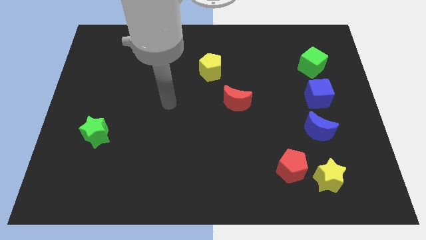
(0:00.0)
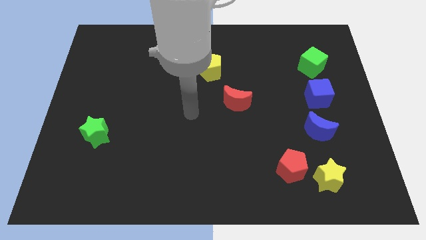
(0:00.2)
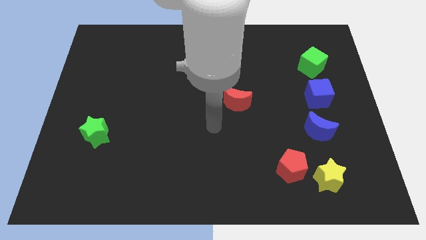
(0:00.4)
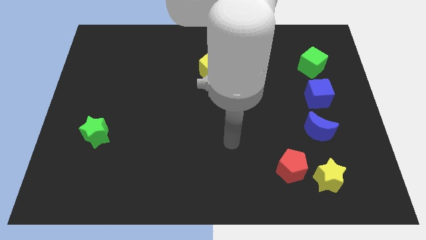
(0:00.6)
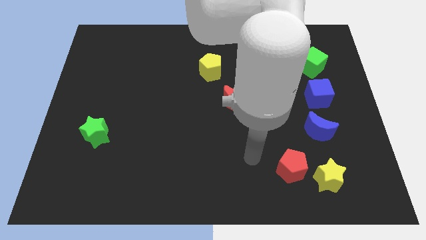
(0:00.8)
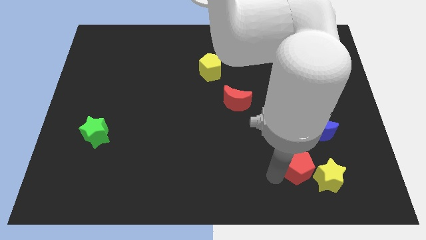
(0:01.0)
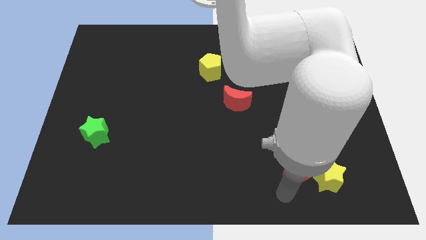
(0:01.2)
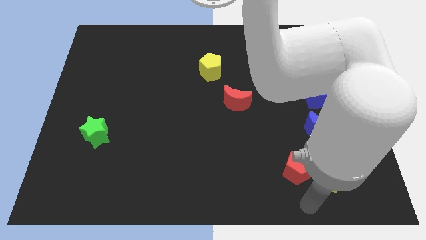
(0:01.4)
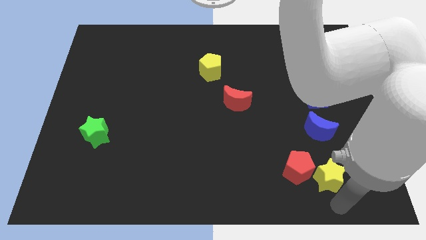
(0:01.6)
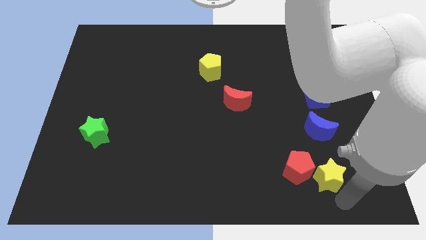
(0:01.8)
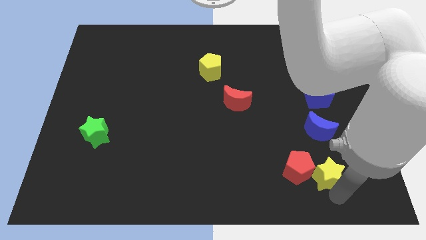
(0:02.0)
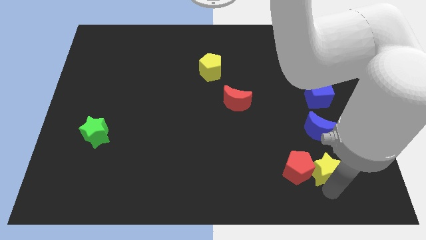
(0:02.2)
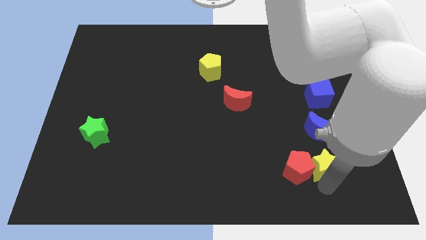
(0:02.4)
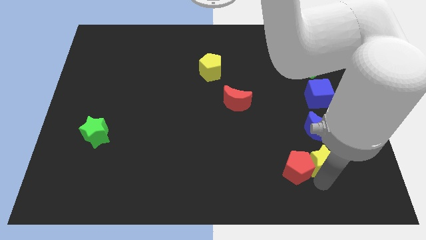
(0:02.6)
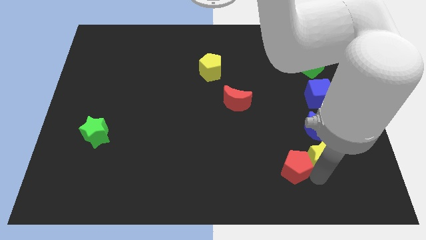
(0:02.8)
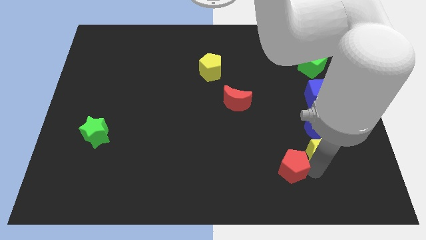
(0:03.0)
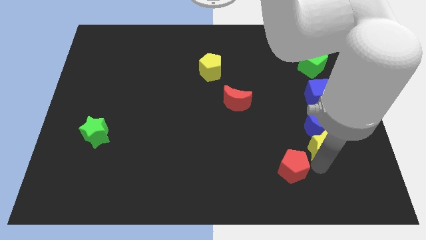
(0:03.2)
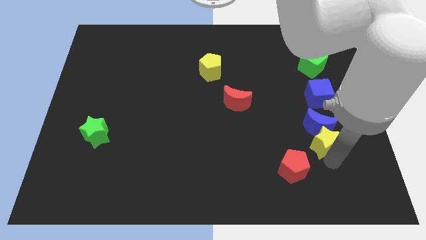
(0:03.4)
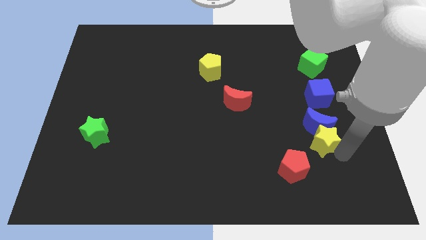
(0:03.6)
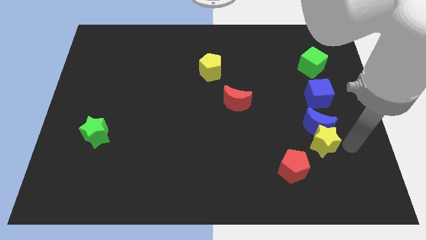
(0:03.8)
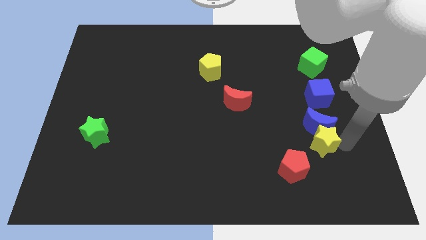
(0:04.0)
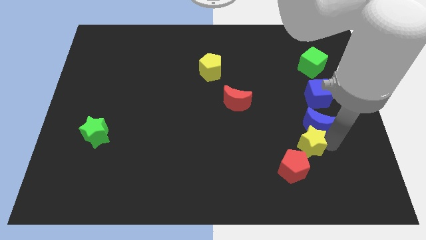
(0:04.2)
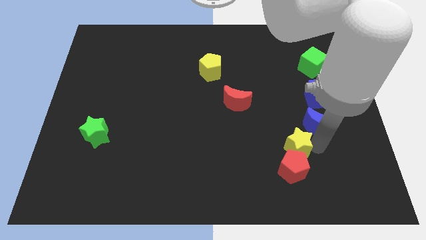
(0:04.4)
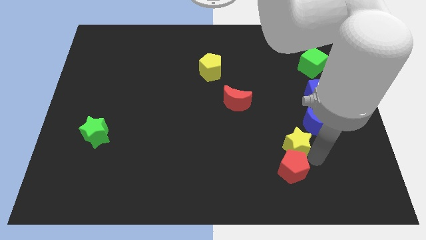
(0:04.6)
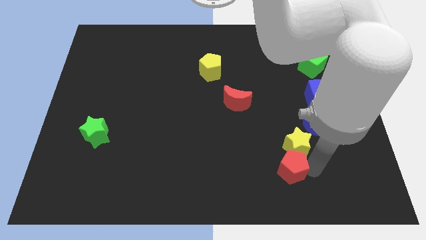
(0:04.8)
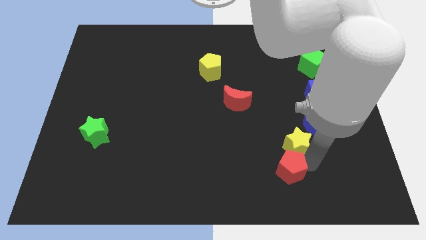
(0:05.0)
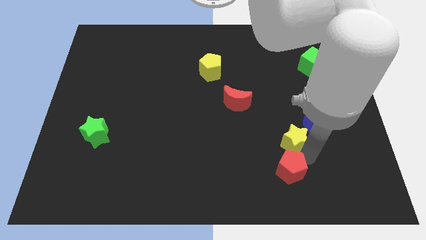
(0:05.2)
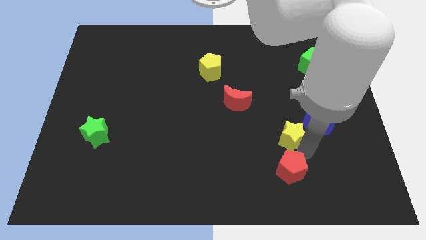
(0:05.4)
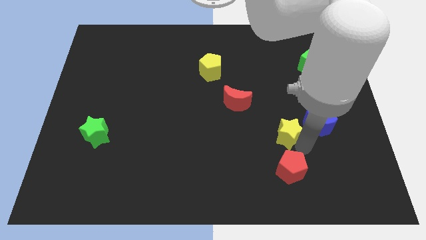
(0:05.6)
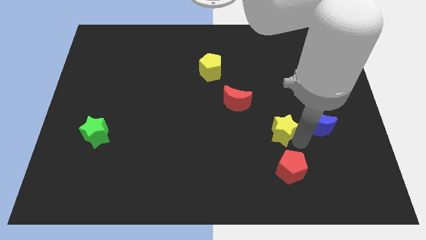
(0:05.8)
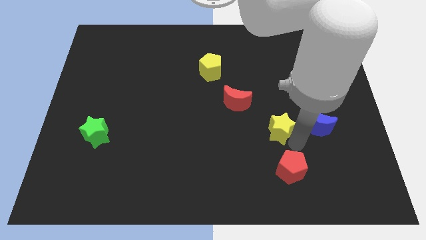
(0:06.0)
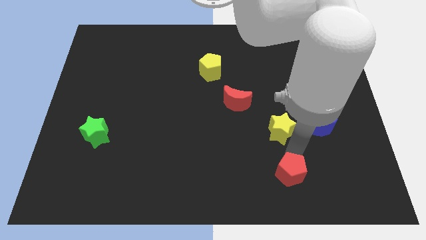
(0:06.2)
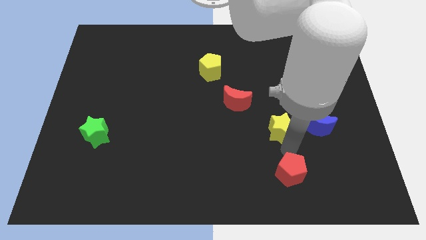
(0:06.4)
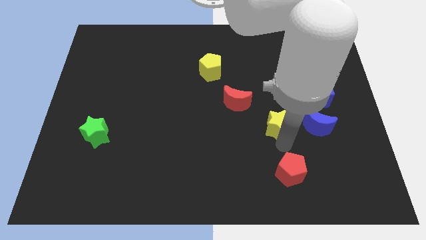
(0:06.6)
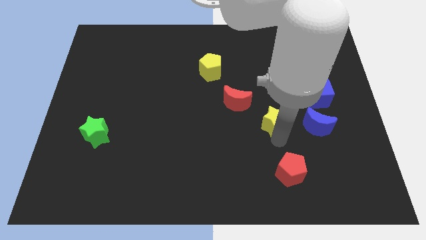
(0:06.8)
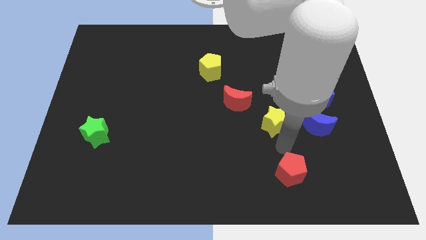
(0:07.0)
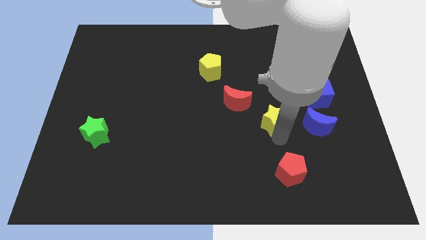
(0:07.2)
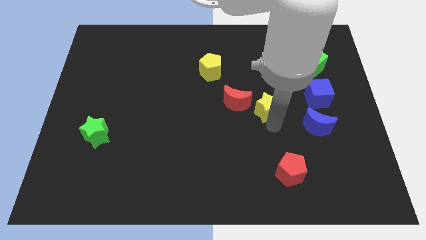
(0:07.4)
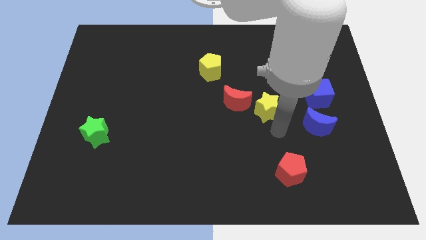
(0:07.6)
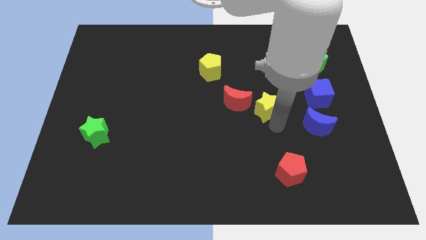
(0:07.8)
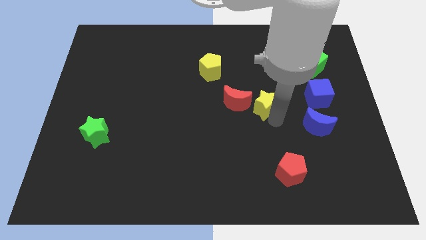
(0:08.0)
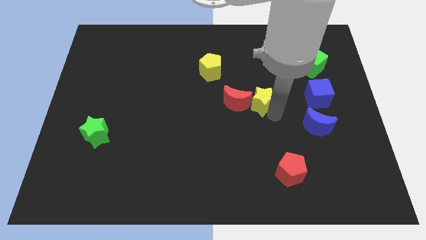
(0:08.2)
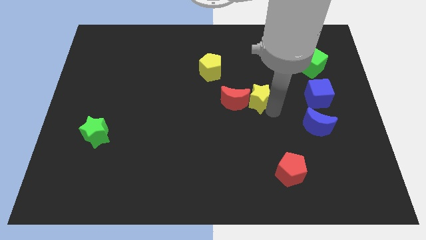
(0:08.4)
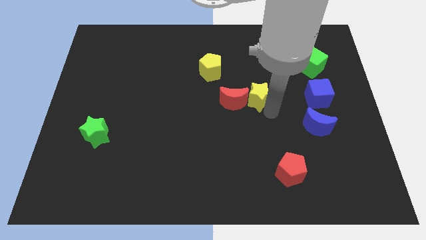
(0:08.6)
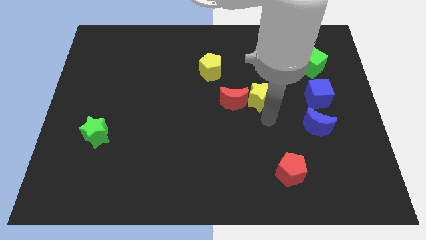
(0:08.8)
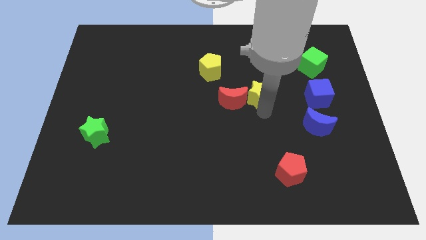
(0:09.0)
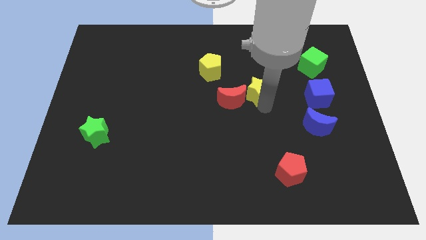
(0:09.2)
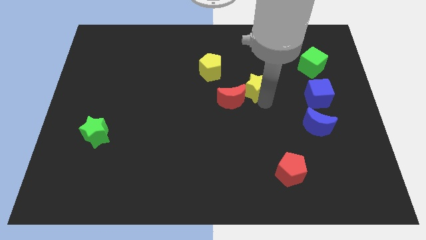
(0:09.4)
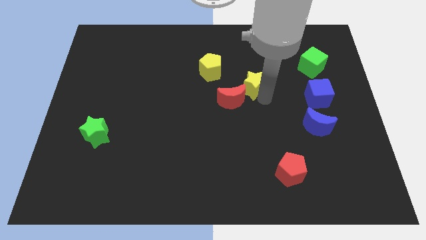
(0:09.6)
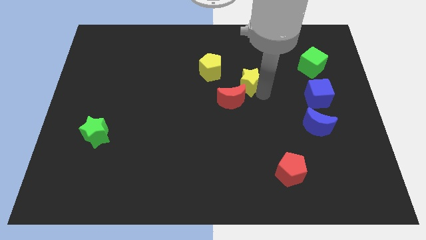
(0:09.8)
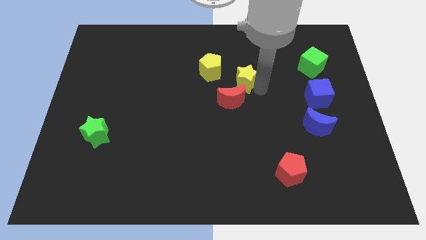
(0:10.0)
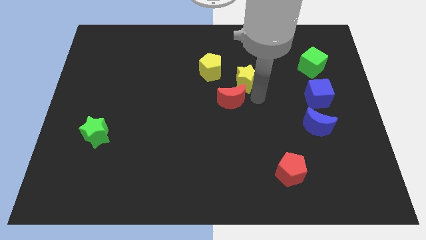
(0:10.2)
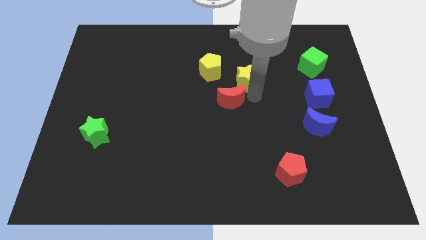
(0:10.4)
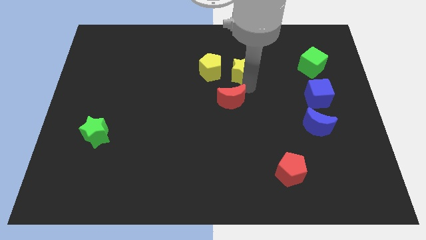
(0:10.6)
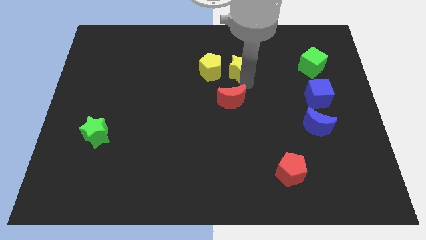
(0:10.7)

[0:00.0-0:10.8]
move the yellow star to the top right side of the yellow pentagon

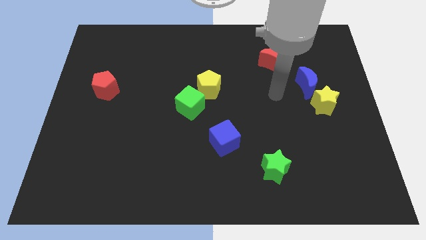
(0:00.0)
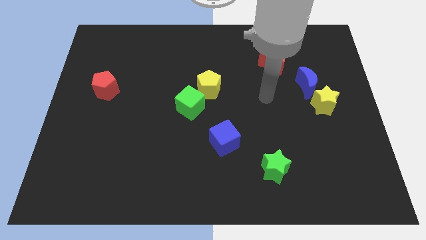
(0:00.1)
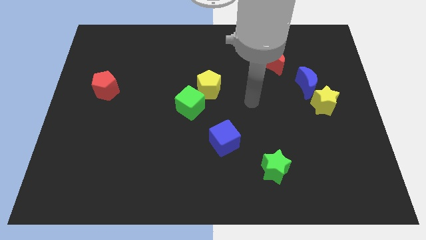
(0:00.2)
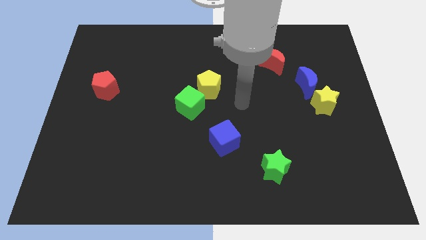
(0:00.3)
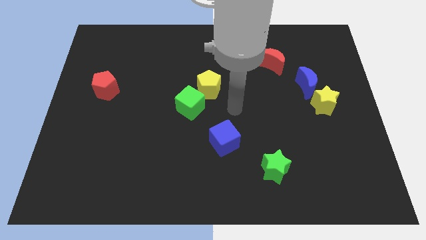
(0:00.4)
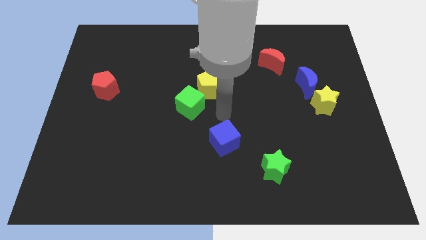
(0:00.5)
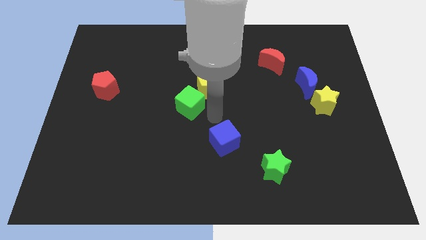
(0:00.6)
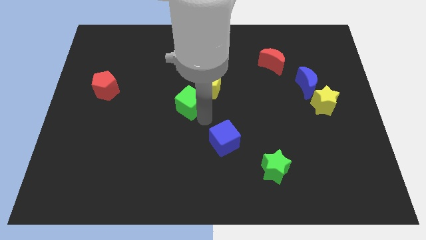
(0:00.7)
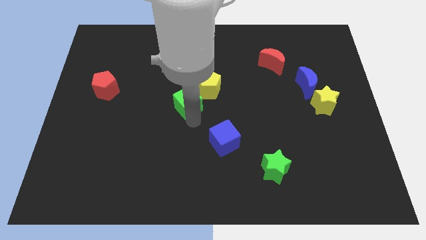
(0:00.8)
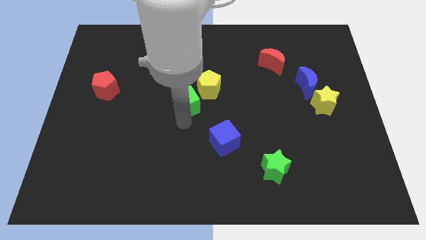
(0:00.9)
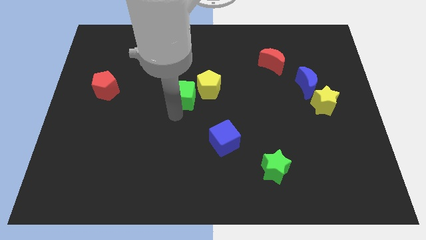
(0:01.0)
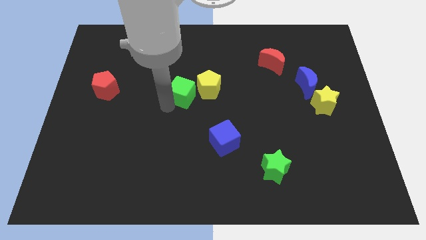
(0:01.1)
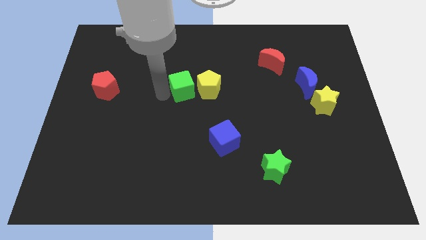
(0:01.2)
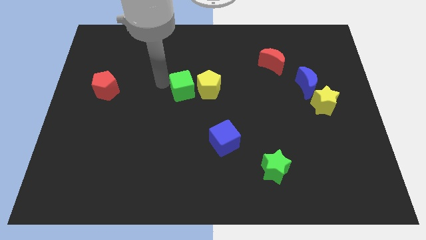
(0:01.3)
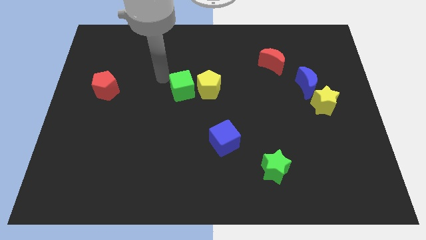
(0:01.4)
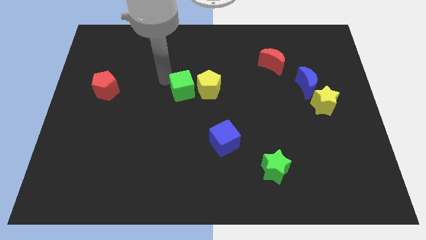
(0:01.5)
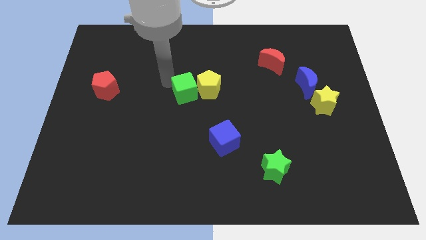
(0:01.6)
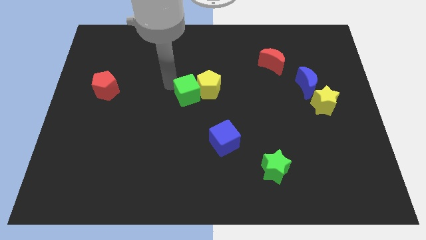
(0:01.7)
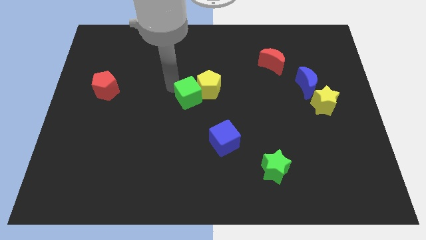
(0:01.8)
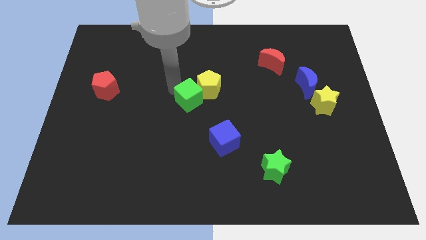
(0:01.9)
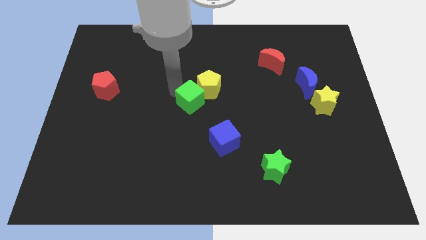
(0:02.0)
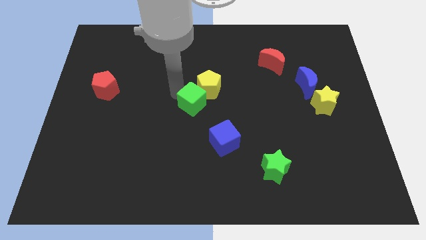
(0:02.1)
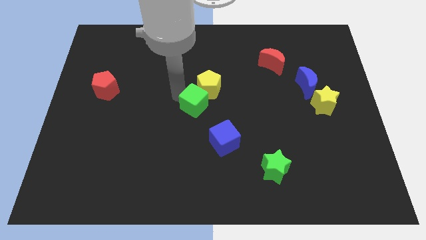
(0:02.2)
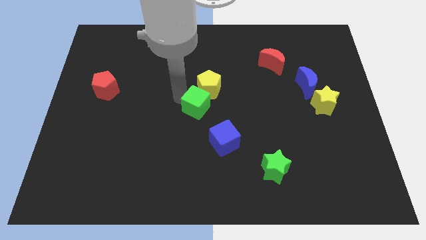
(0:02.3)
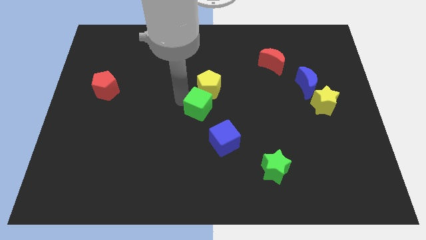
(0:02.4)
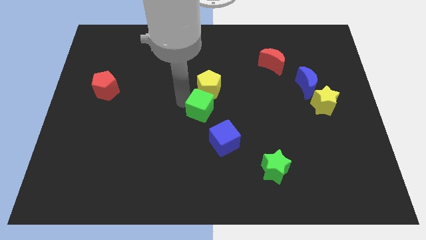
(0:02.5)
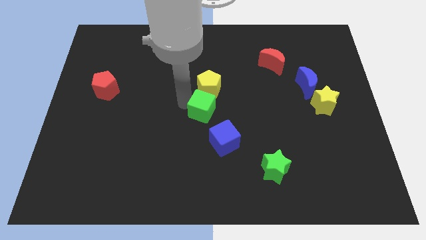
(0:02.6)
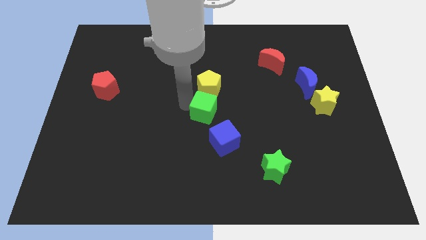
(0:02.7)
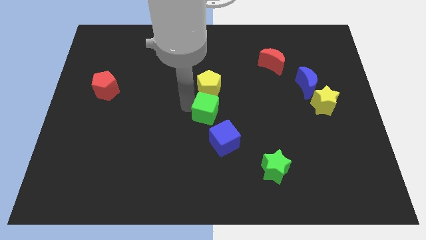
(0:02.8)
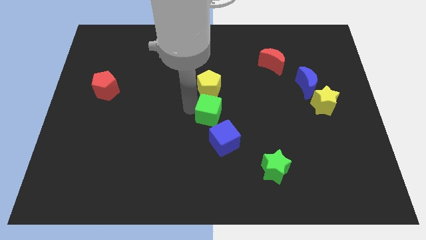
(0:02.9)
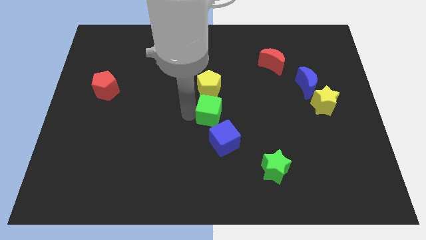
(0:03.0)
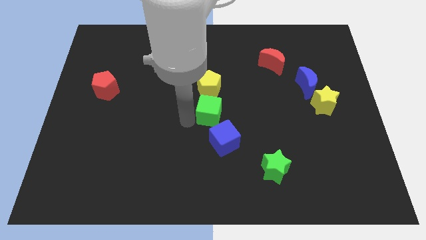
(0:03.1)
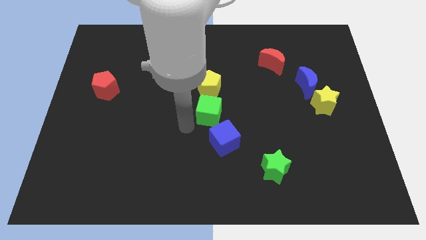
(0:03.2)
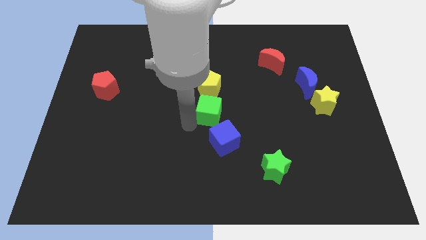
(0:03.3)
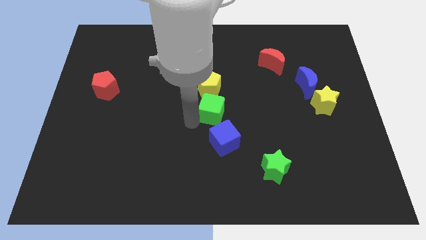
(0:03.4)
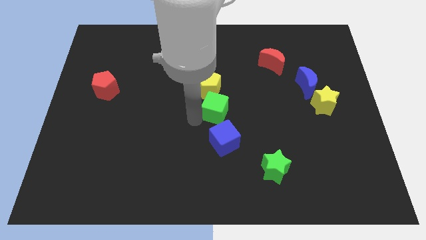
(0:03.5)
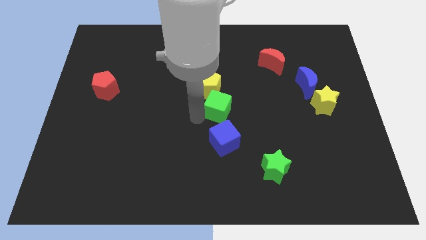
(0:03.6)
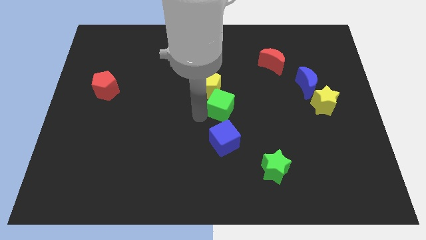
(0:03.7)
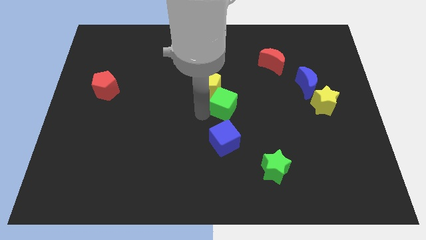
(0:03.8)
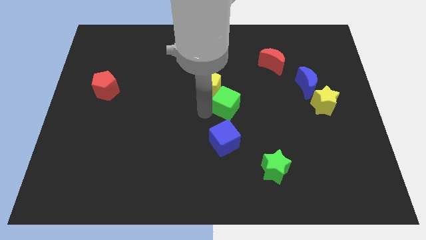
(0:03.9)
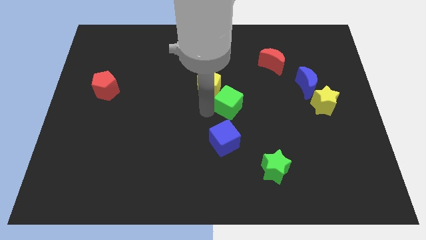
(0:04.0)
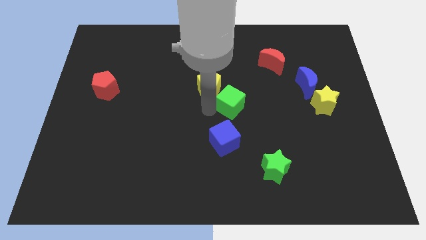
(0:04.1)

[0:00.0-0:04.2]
slide the green cube to the right of the yellow pentagon
